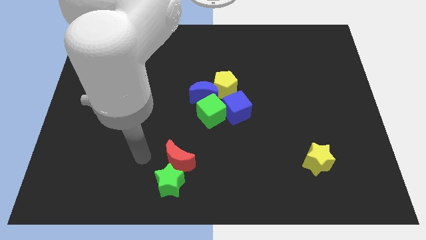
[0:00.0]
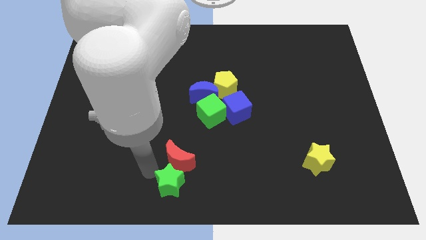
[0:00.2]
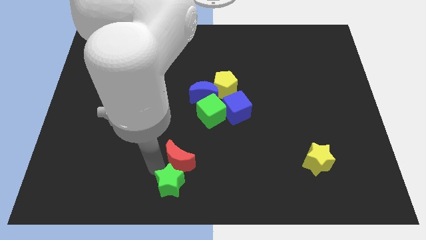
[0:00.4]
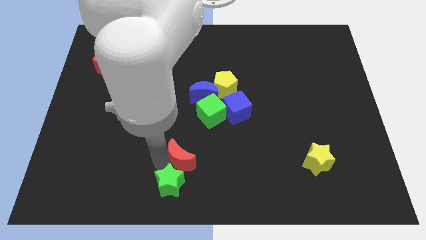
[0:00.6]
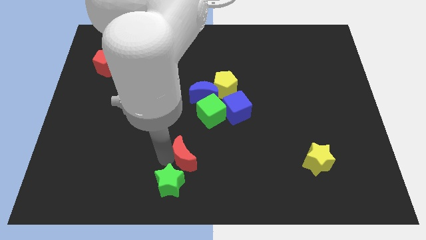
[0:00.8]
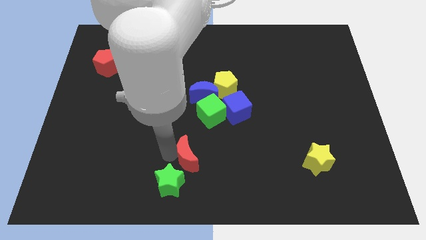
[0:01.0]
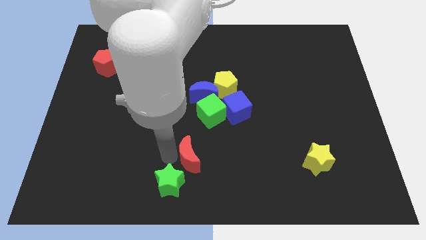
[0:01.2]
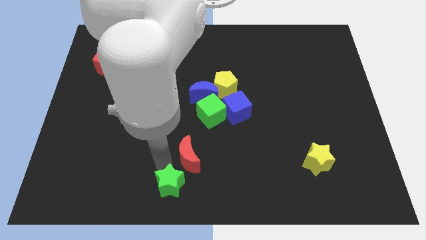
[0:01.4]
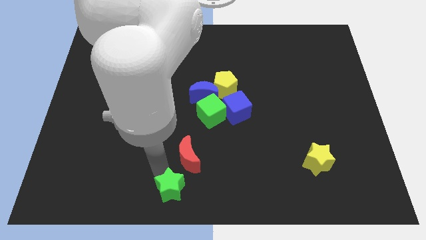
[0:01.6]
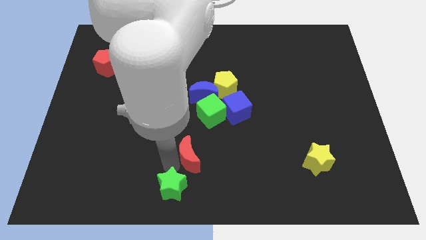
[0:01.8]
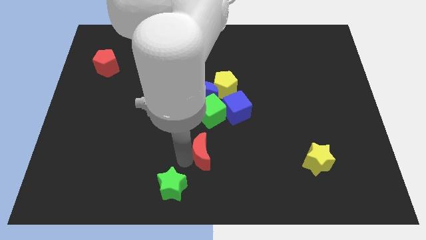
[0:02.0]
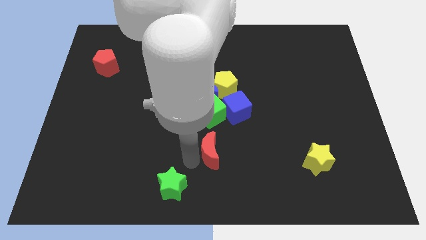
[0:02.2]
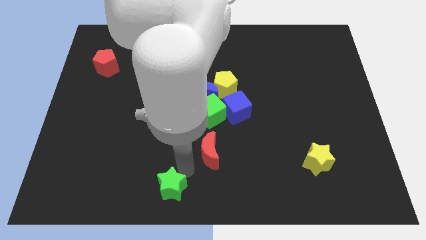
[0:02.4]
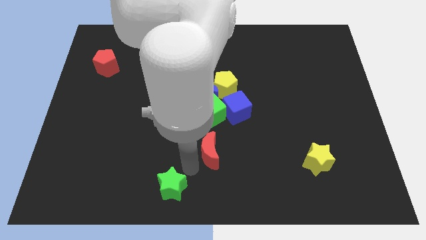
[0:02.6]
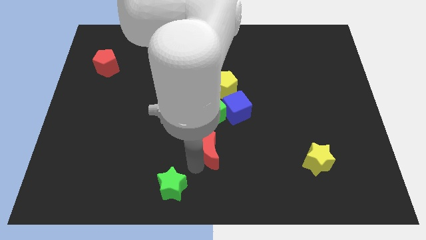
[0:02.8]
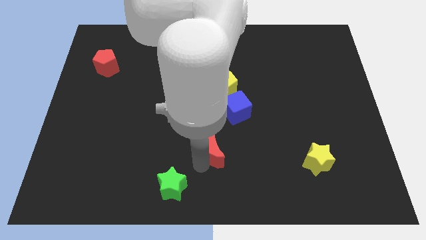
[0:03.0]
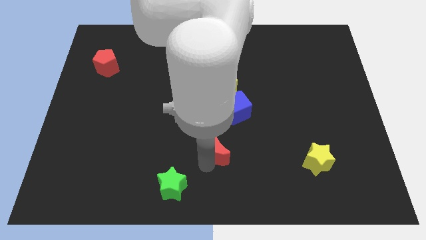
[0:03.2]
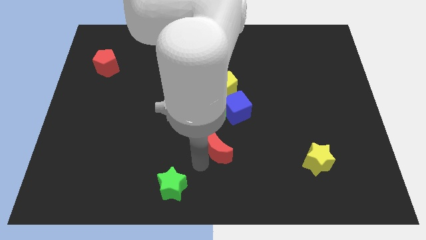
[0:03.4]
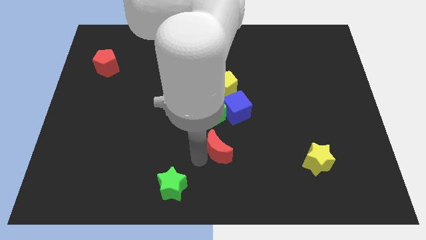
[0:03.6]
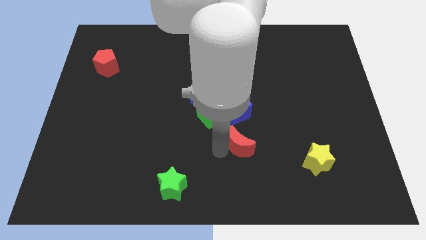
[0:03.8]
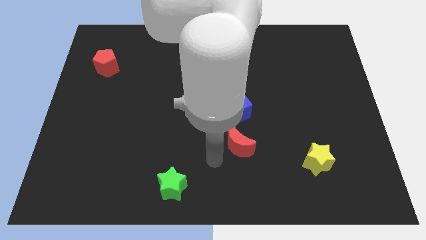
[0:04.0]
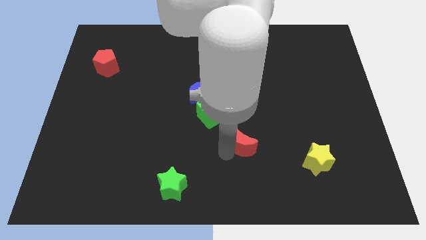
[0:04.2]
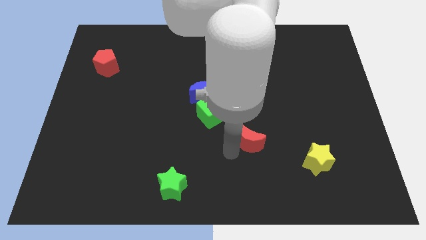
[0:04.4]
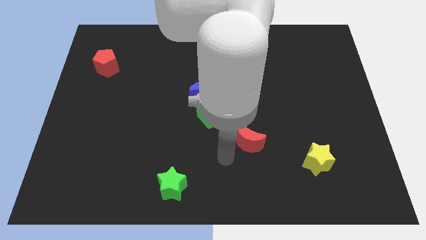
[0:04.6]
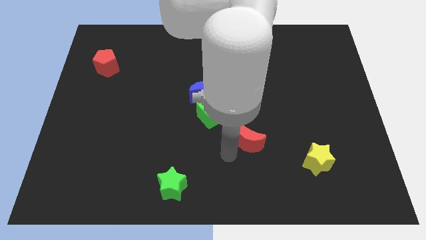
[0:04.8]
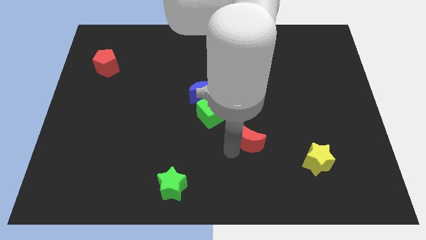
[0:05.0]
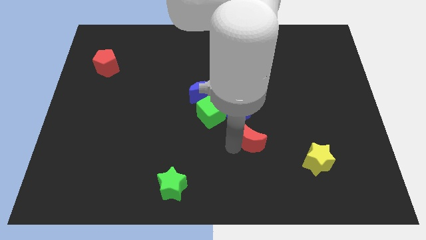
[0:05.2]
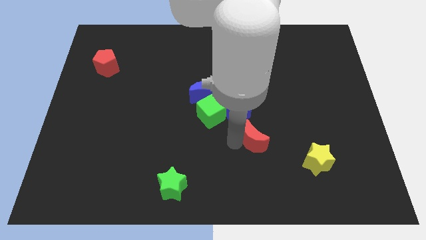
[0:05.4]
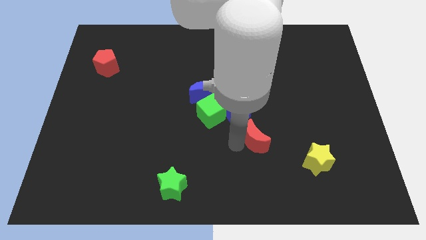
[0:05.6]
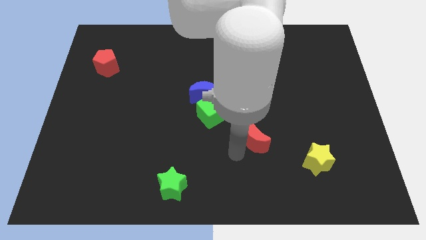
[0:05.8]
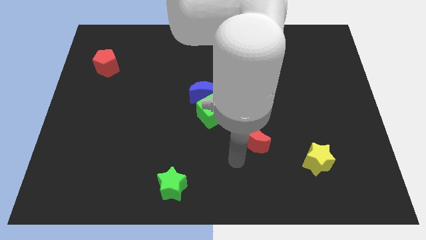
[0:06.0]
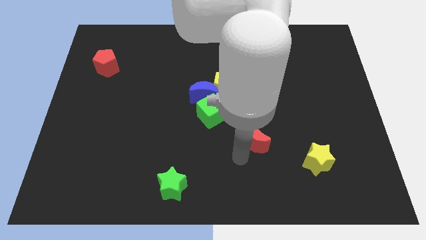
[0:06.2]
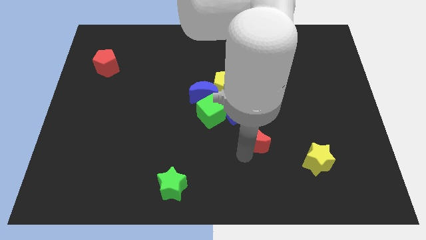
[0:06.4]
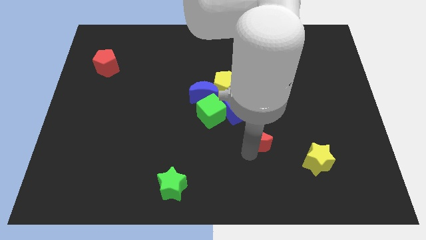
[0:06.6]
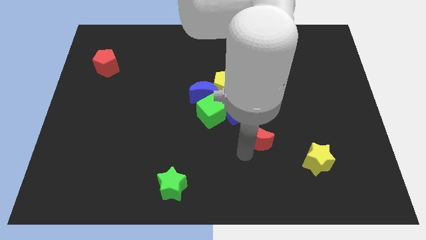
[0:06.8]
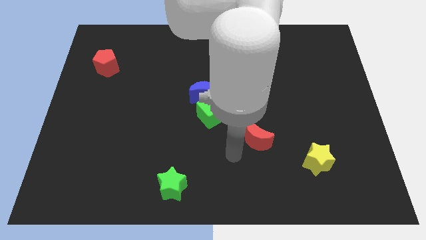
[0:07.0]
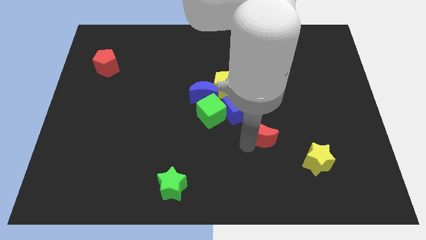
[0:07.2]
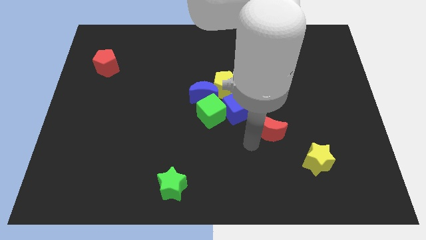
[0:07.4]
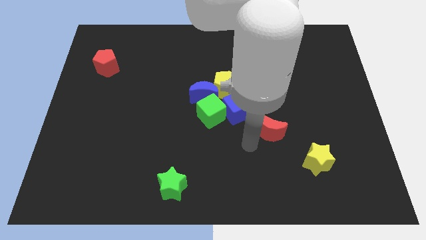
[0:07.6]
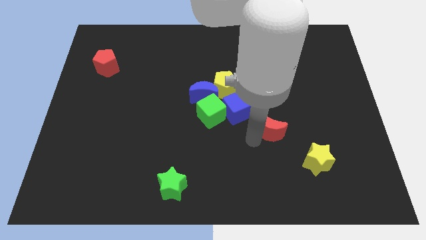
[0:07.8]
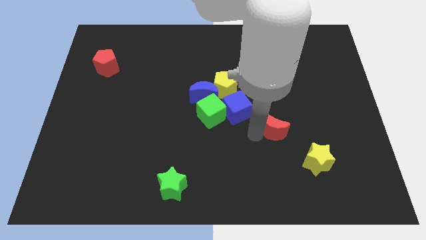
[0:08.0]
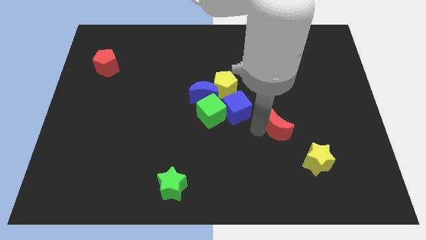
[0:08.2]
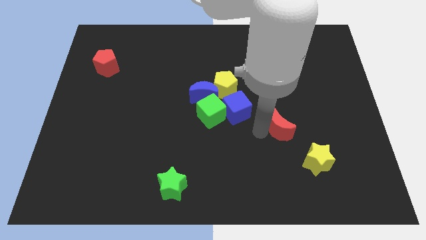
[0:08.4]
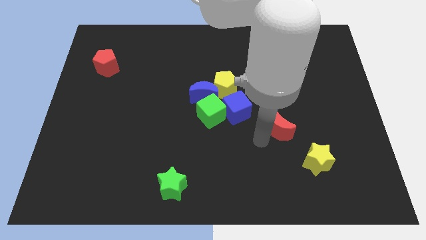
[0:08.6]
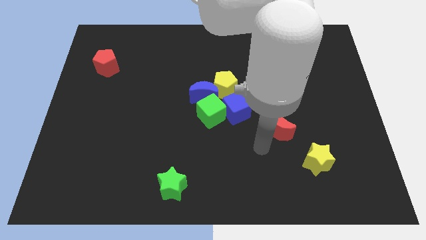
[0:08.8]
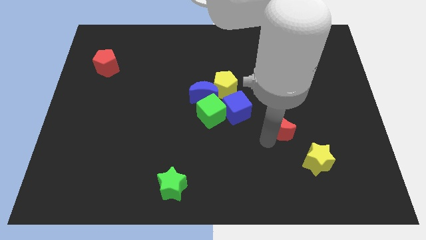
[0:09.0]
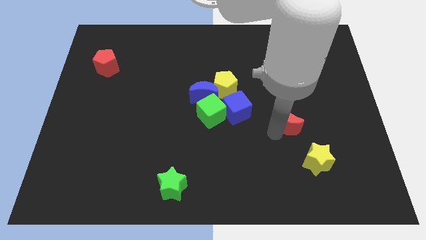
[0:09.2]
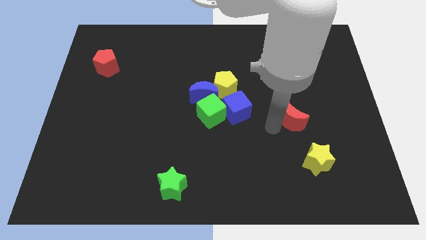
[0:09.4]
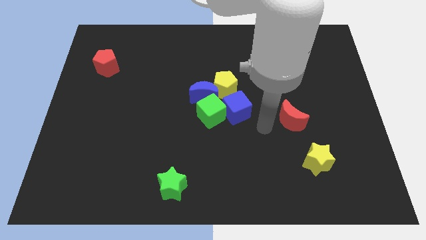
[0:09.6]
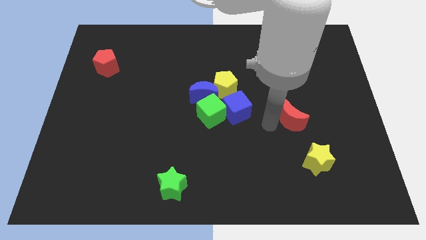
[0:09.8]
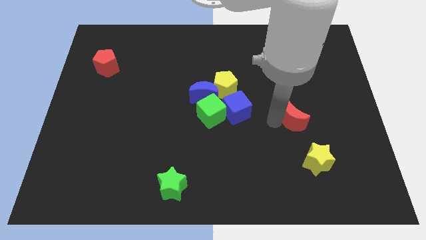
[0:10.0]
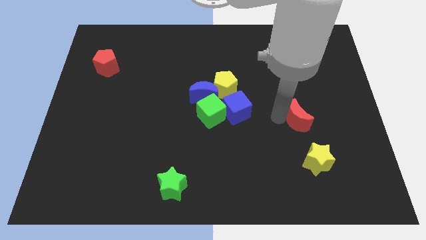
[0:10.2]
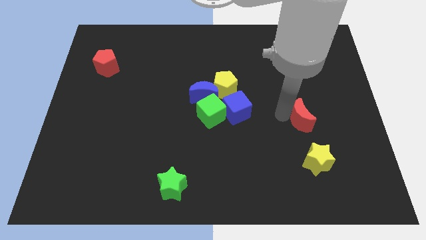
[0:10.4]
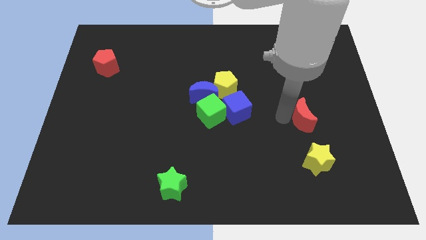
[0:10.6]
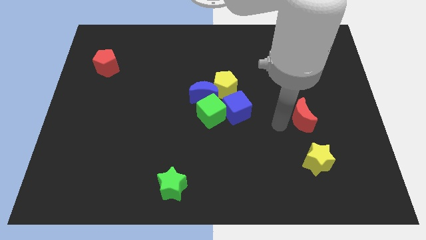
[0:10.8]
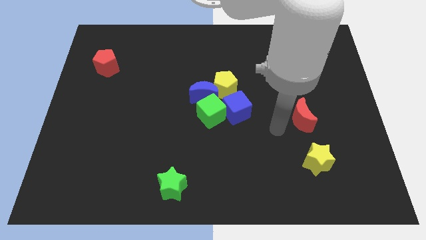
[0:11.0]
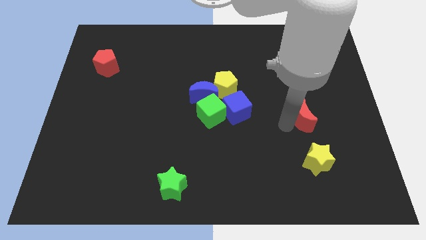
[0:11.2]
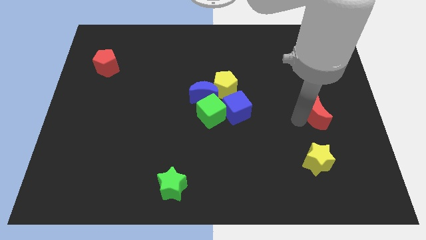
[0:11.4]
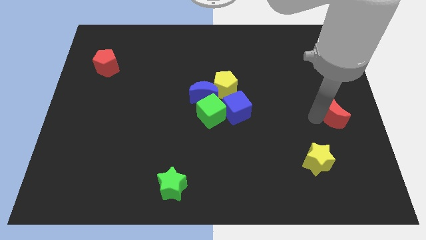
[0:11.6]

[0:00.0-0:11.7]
put the red moon to the right side of the board

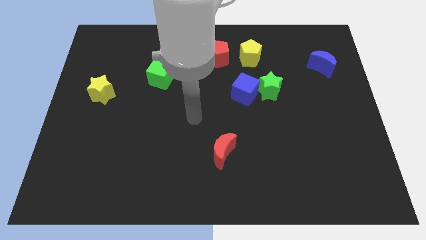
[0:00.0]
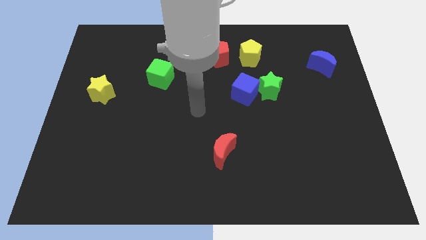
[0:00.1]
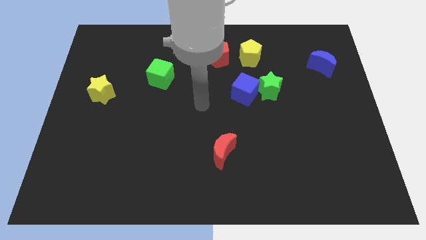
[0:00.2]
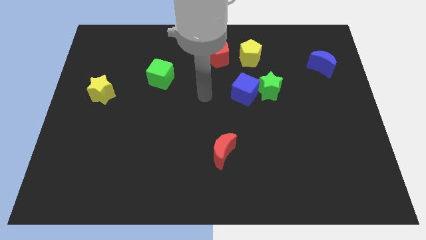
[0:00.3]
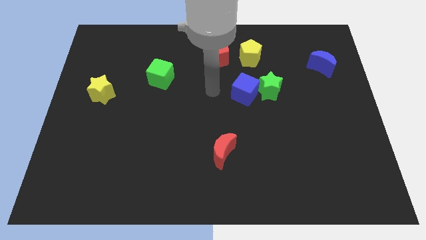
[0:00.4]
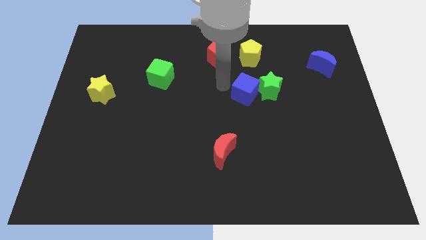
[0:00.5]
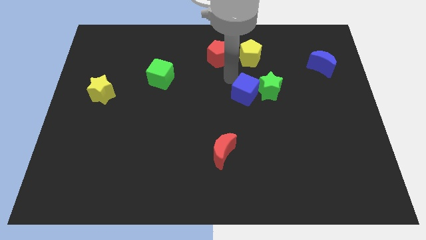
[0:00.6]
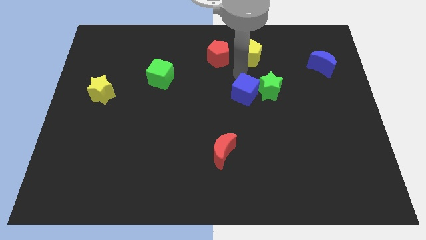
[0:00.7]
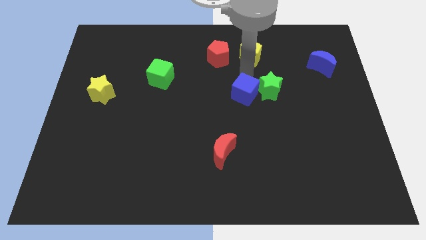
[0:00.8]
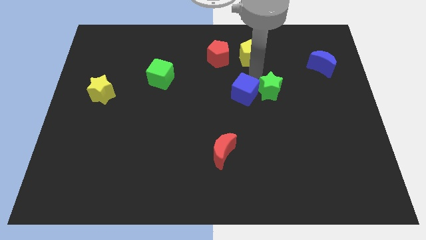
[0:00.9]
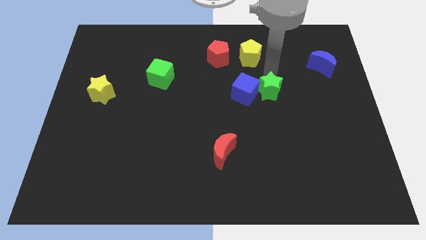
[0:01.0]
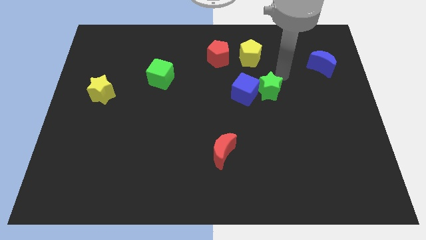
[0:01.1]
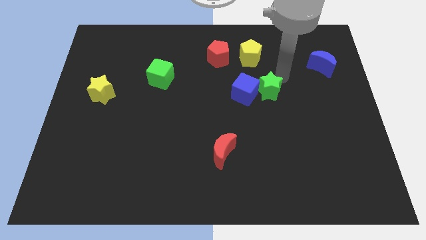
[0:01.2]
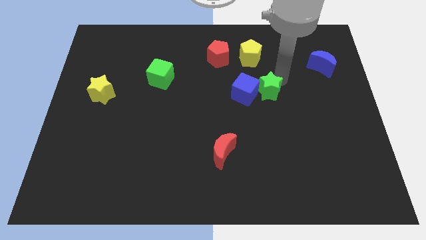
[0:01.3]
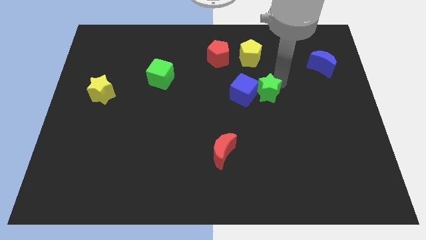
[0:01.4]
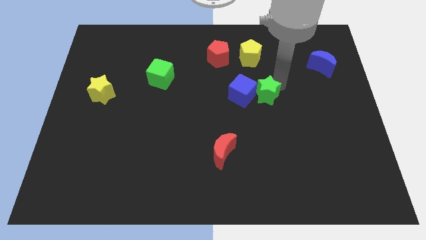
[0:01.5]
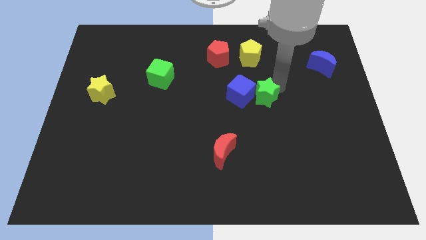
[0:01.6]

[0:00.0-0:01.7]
put the green star to the middle
